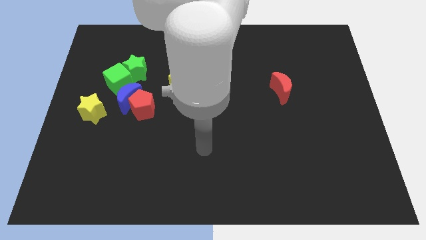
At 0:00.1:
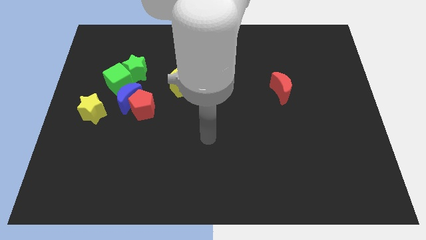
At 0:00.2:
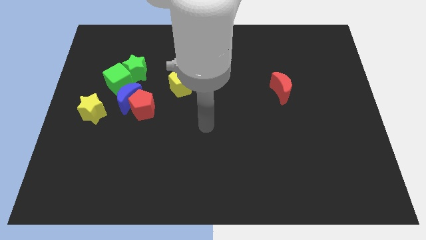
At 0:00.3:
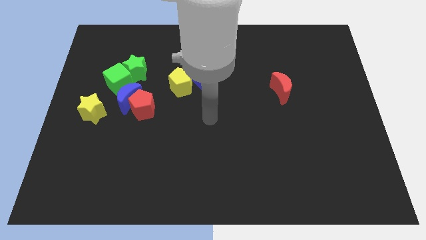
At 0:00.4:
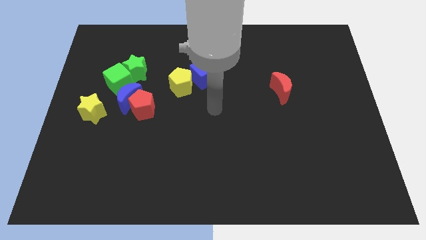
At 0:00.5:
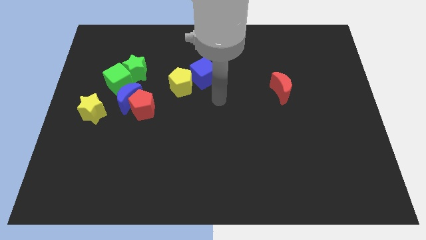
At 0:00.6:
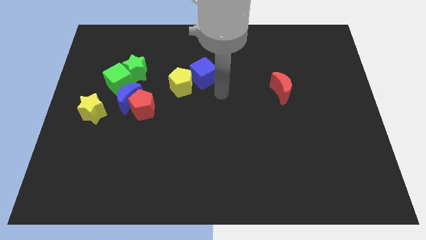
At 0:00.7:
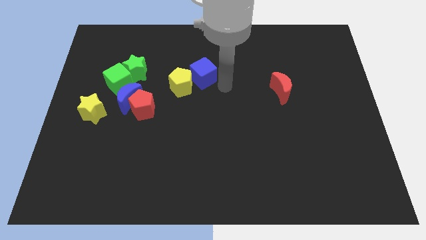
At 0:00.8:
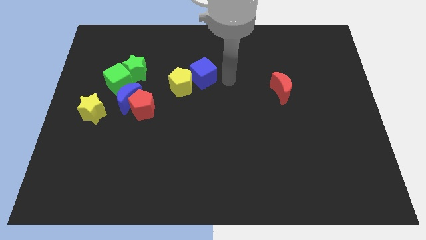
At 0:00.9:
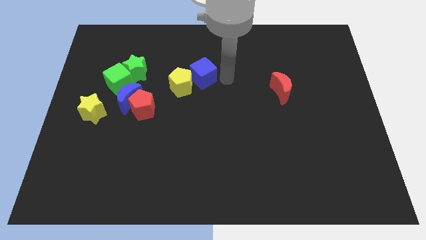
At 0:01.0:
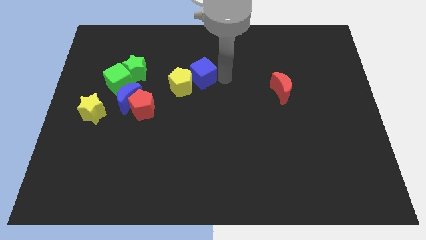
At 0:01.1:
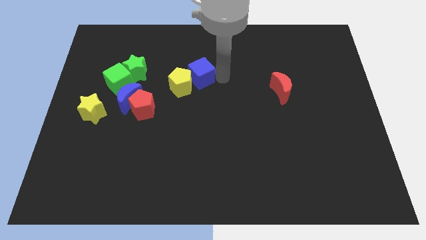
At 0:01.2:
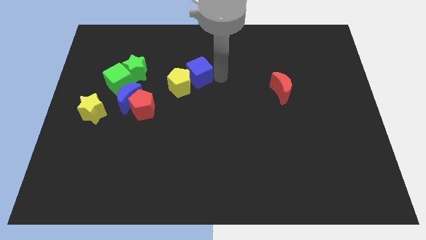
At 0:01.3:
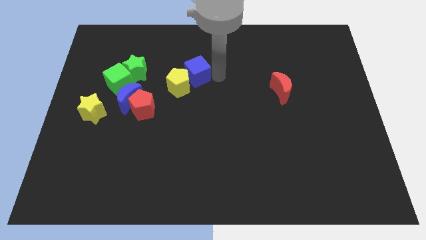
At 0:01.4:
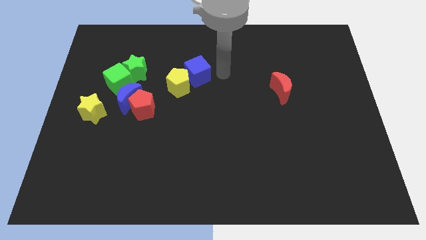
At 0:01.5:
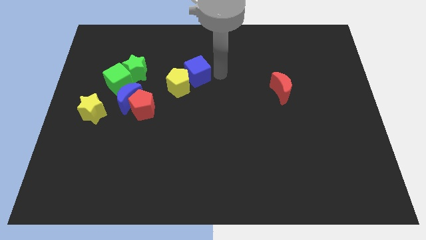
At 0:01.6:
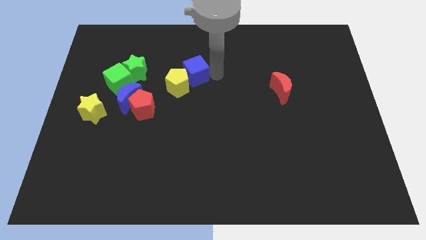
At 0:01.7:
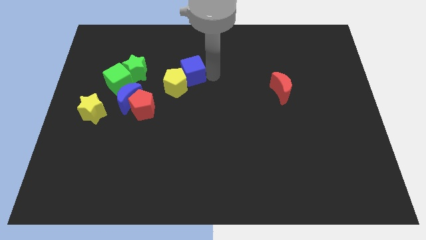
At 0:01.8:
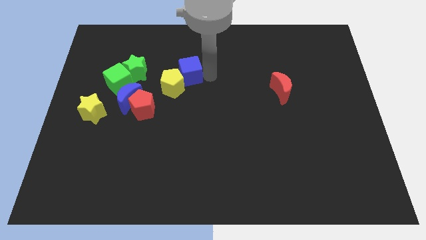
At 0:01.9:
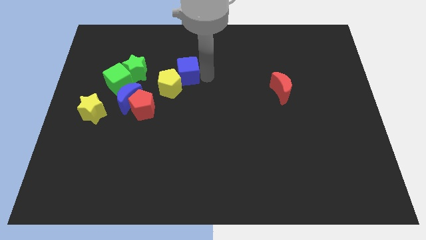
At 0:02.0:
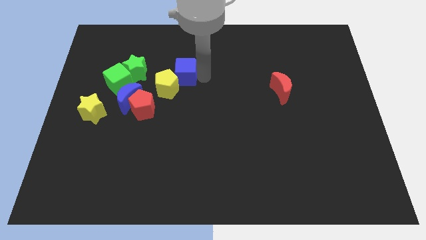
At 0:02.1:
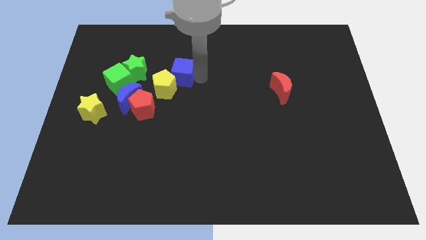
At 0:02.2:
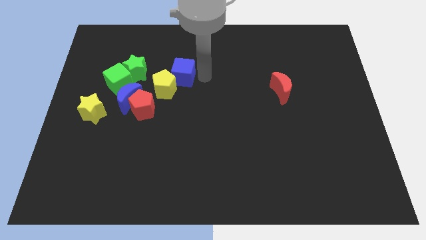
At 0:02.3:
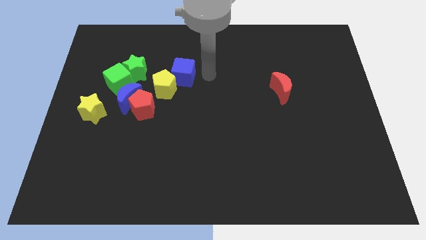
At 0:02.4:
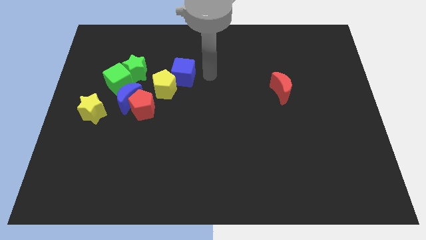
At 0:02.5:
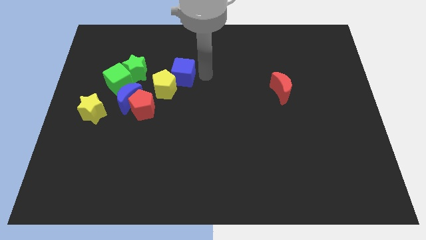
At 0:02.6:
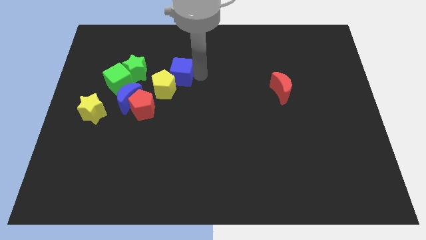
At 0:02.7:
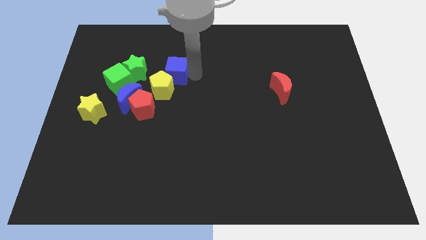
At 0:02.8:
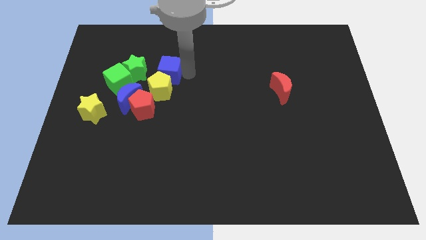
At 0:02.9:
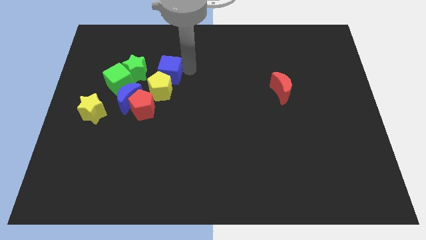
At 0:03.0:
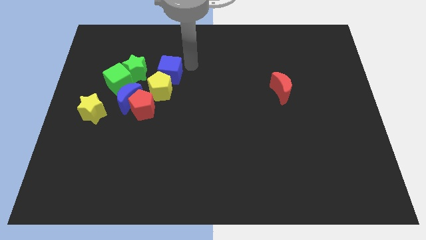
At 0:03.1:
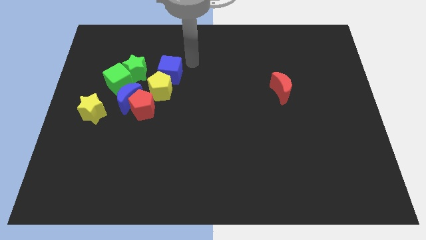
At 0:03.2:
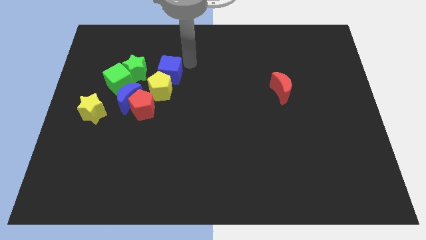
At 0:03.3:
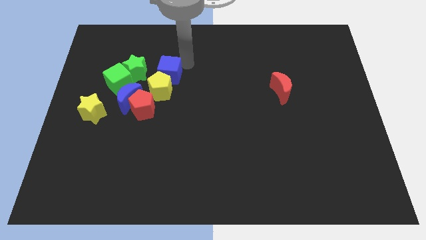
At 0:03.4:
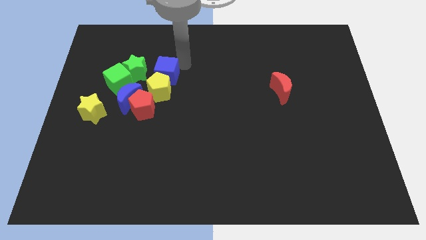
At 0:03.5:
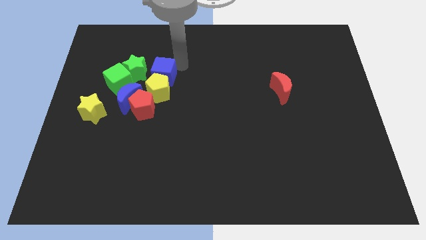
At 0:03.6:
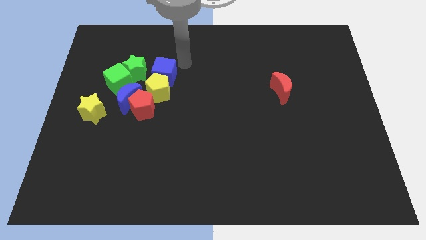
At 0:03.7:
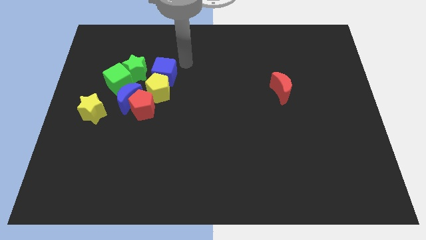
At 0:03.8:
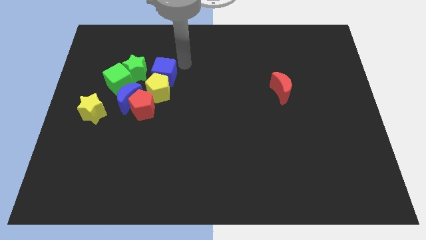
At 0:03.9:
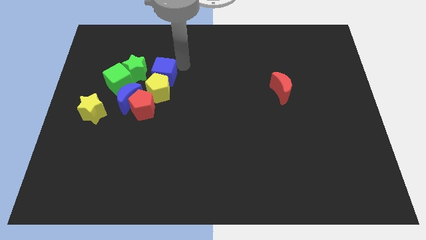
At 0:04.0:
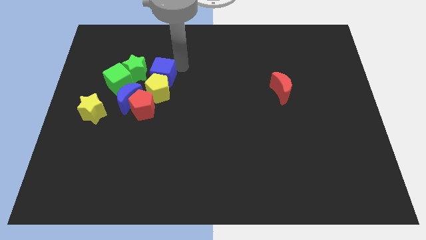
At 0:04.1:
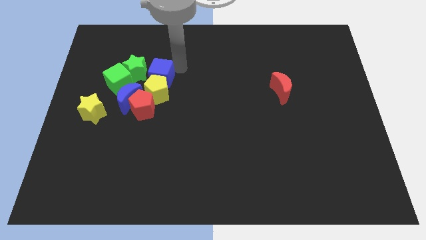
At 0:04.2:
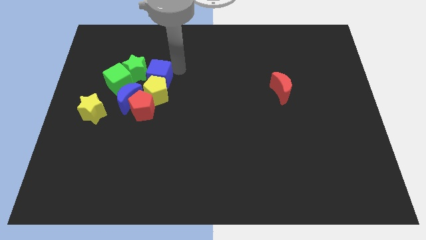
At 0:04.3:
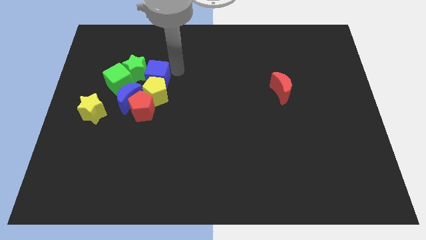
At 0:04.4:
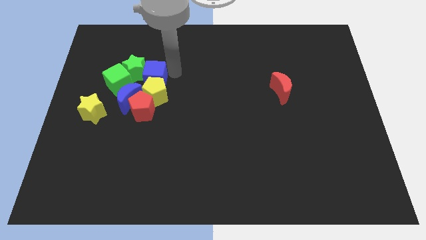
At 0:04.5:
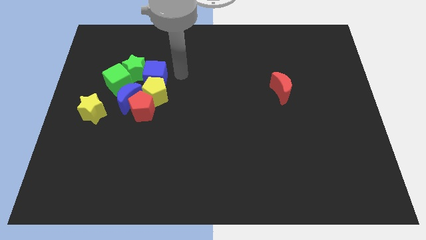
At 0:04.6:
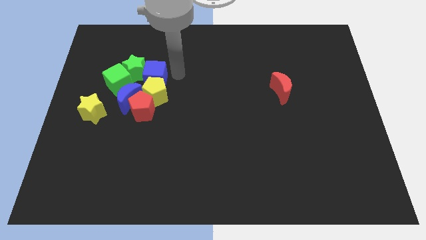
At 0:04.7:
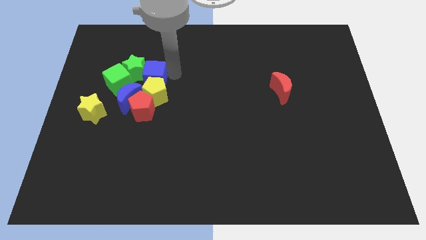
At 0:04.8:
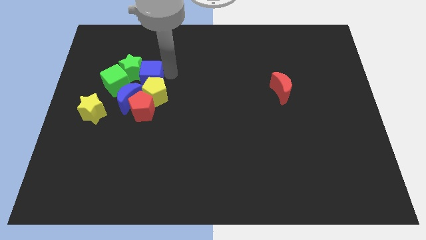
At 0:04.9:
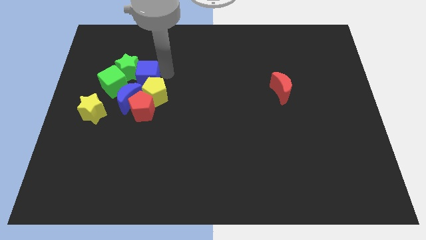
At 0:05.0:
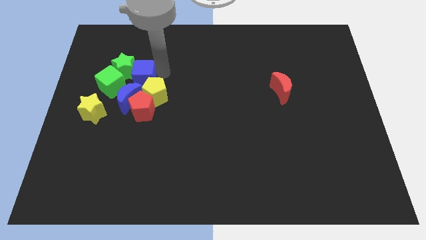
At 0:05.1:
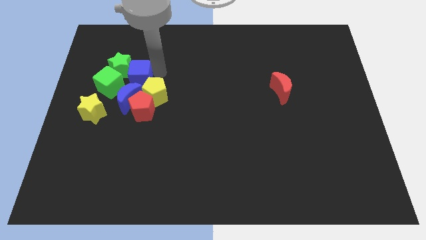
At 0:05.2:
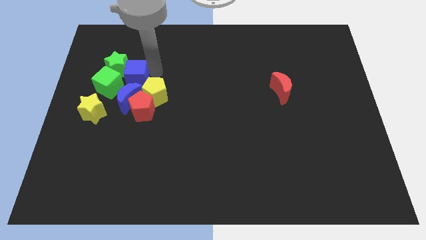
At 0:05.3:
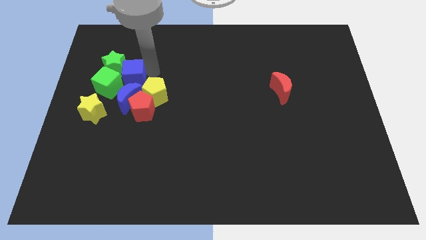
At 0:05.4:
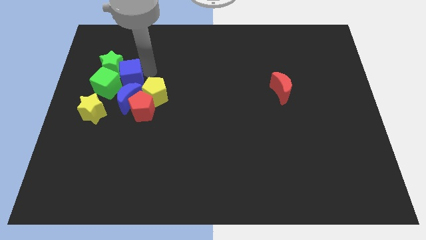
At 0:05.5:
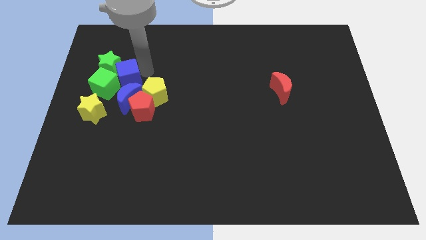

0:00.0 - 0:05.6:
move the blue cube towards the green cube

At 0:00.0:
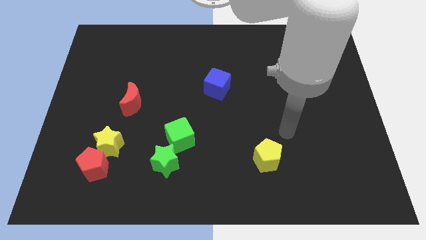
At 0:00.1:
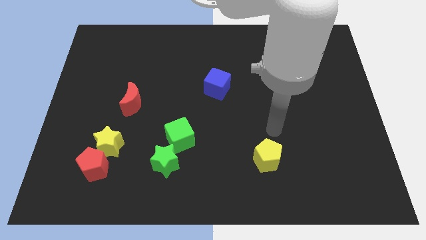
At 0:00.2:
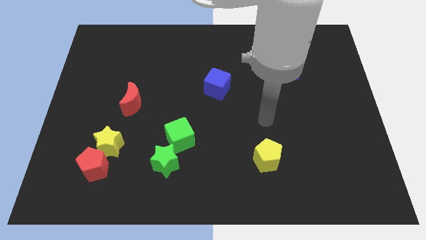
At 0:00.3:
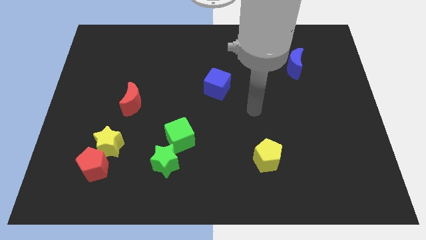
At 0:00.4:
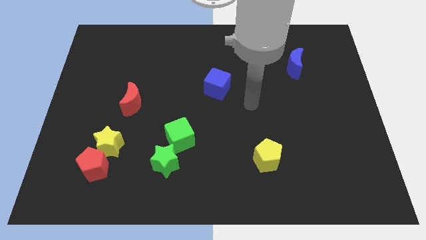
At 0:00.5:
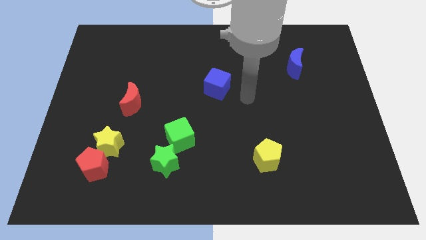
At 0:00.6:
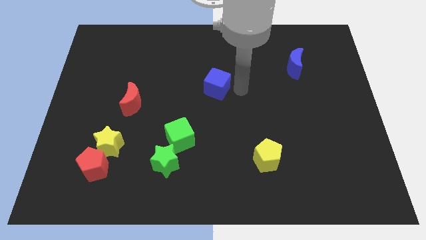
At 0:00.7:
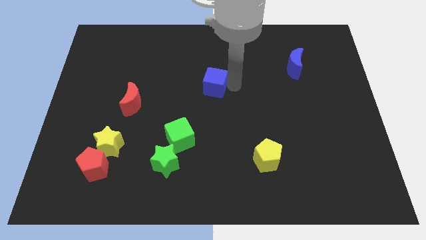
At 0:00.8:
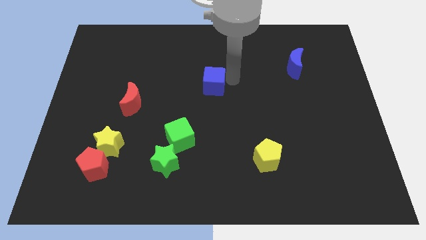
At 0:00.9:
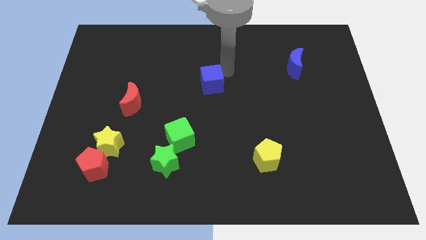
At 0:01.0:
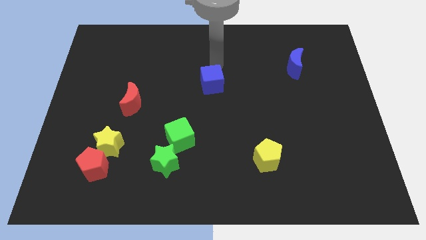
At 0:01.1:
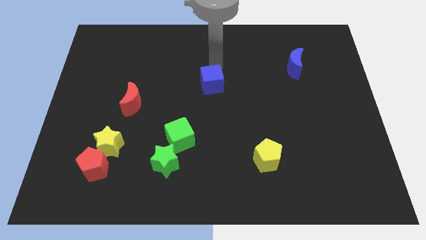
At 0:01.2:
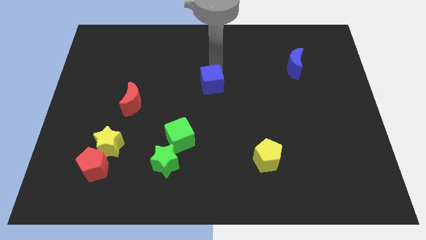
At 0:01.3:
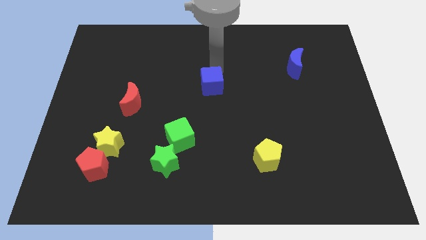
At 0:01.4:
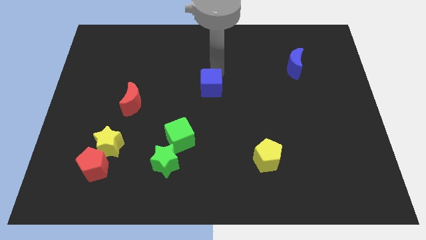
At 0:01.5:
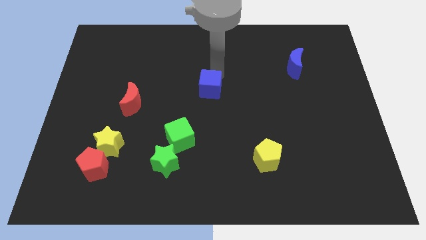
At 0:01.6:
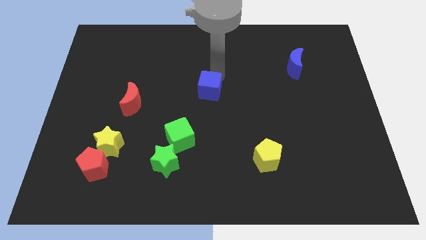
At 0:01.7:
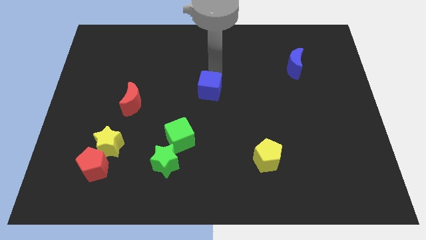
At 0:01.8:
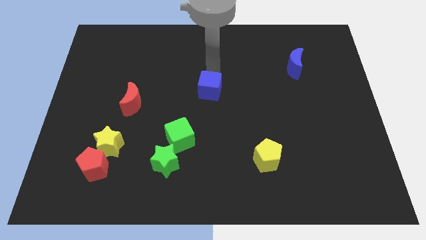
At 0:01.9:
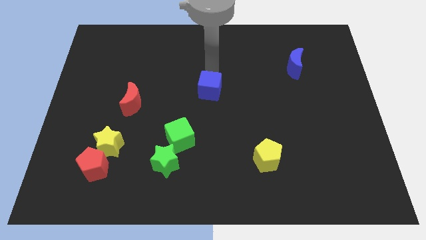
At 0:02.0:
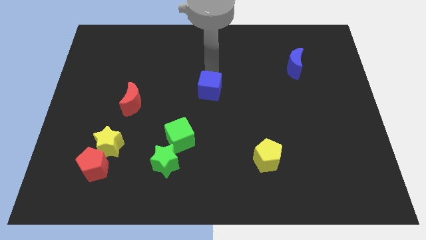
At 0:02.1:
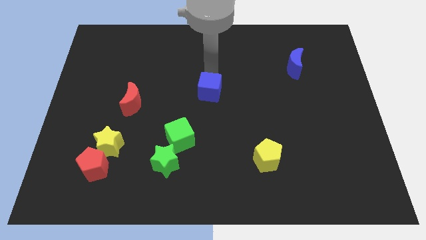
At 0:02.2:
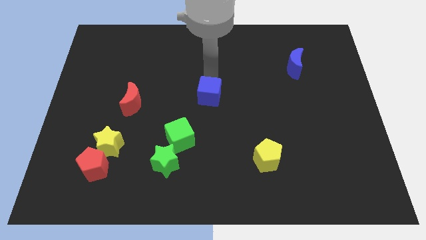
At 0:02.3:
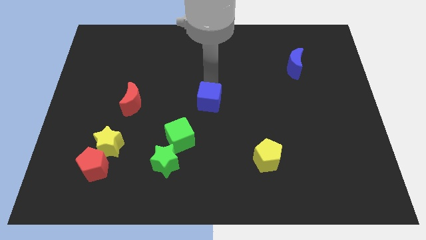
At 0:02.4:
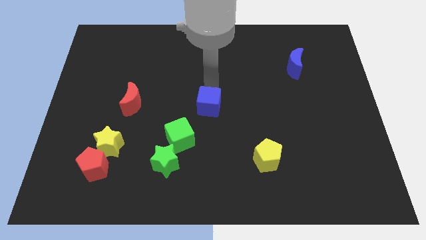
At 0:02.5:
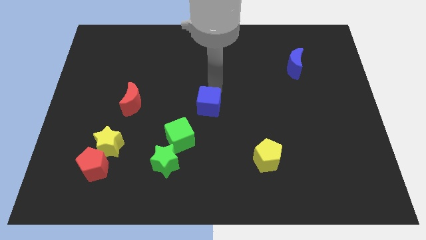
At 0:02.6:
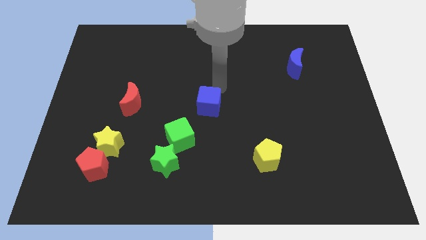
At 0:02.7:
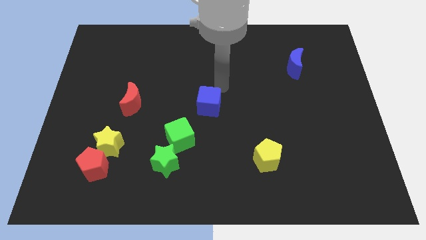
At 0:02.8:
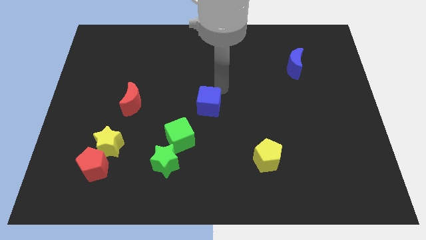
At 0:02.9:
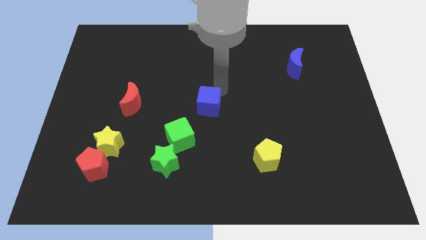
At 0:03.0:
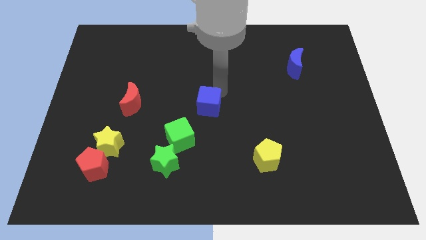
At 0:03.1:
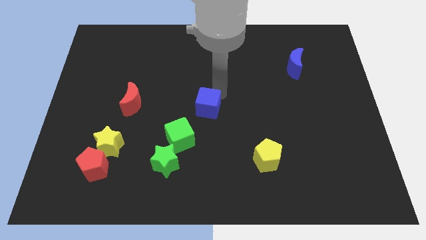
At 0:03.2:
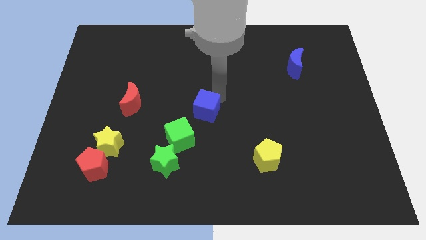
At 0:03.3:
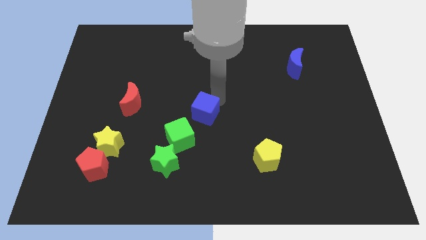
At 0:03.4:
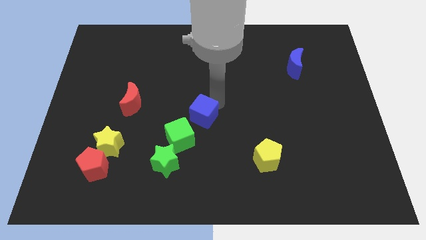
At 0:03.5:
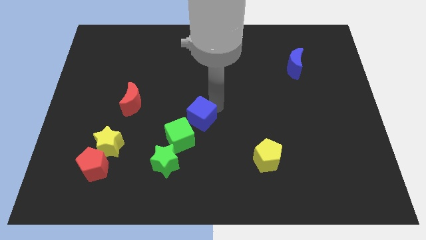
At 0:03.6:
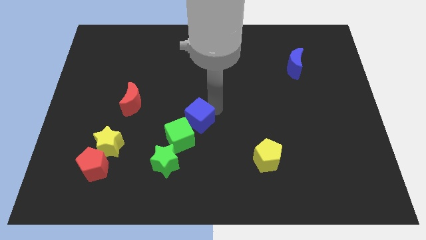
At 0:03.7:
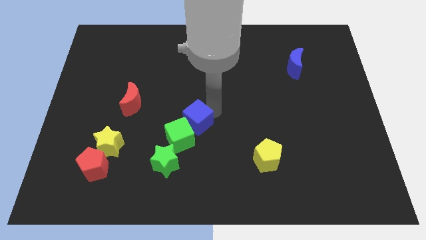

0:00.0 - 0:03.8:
move the blue cube to the green cube
